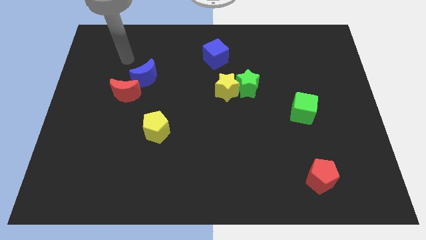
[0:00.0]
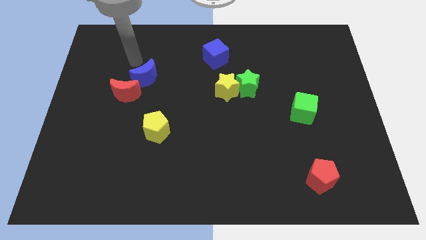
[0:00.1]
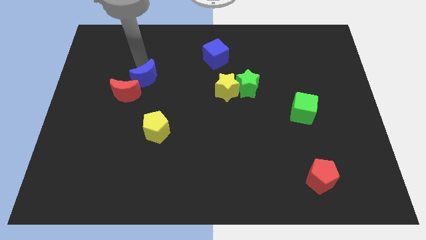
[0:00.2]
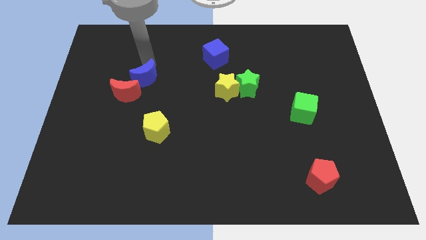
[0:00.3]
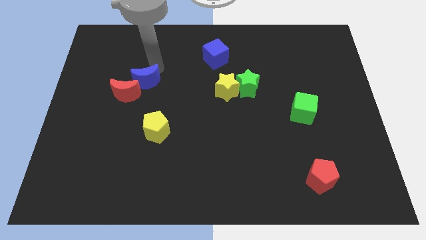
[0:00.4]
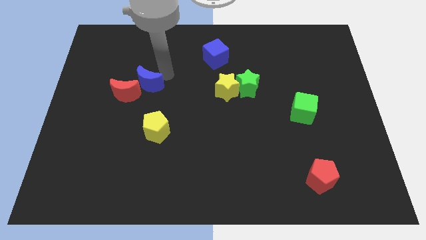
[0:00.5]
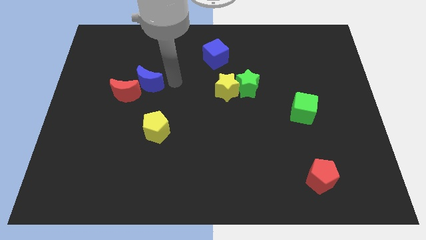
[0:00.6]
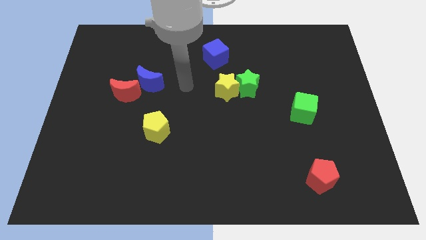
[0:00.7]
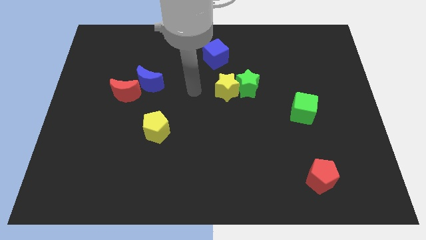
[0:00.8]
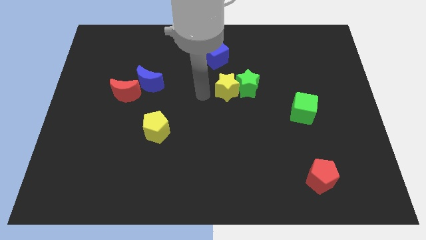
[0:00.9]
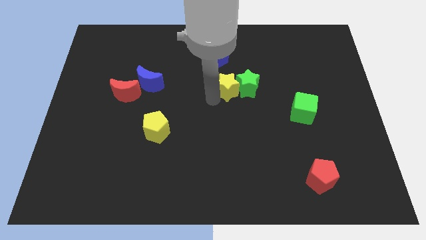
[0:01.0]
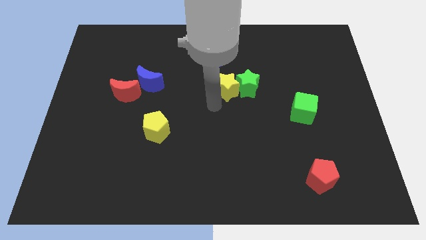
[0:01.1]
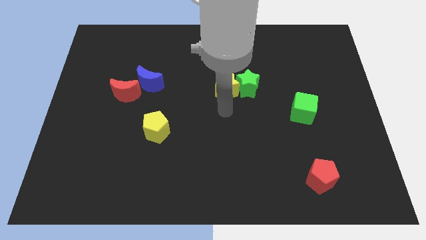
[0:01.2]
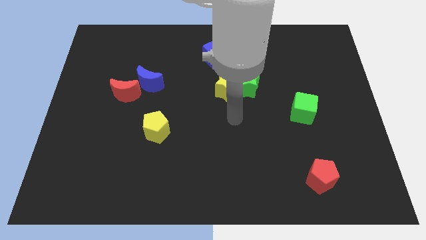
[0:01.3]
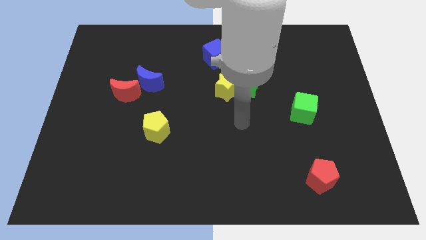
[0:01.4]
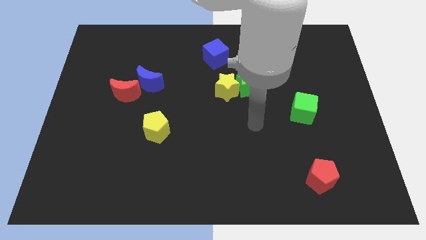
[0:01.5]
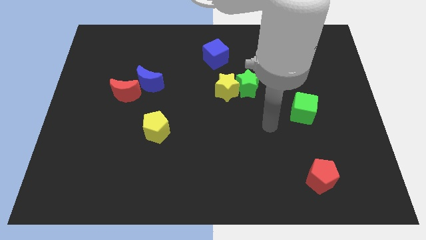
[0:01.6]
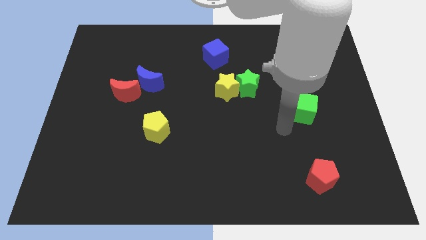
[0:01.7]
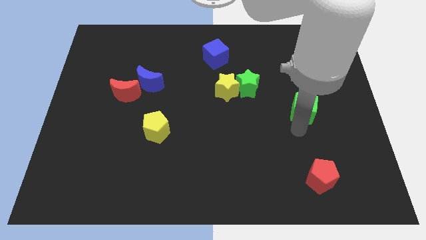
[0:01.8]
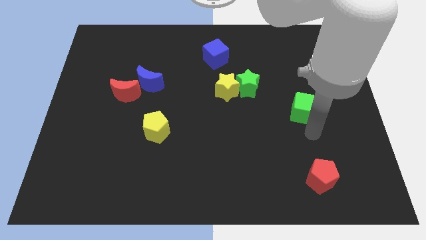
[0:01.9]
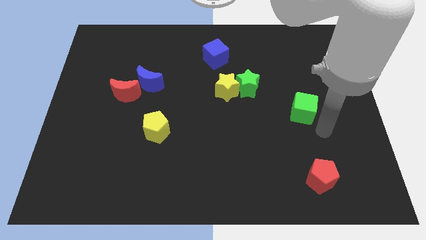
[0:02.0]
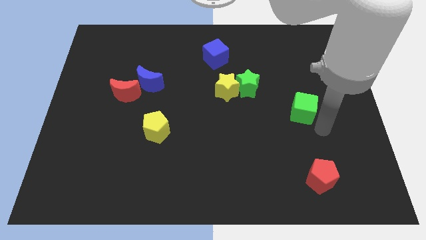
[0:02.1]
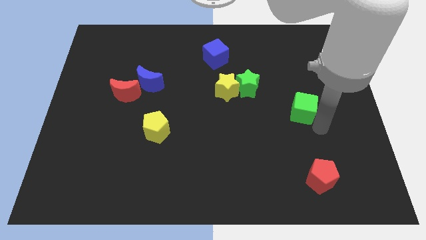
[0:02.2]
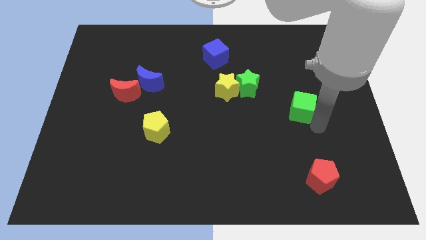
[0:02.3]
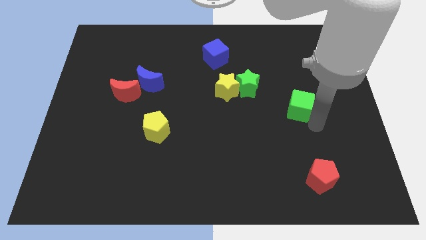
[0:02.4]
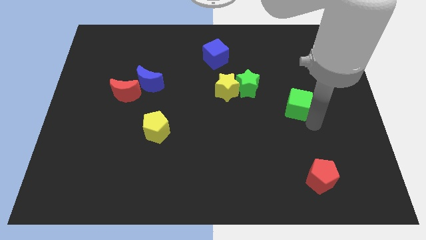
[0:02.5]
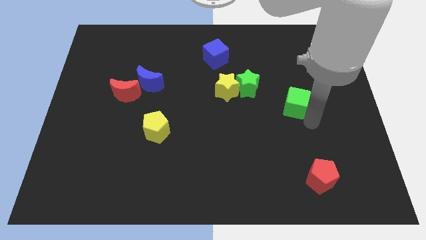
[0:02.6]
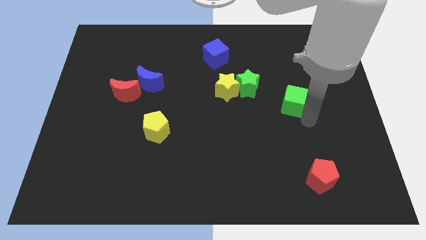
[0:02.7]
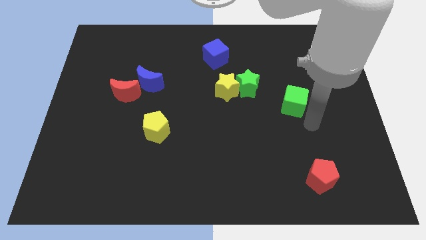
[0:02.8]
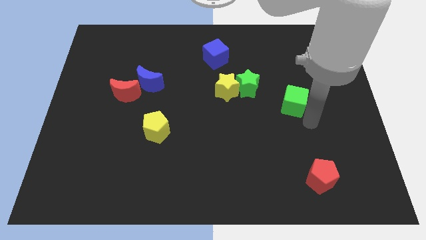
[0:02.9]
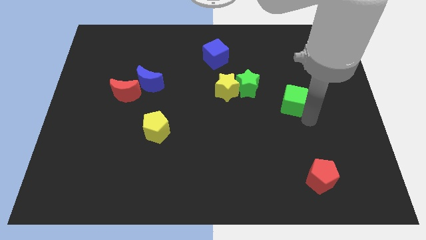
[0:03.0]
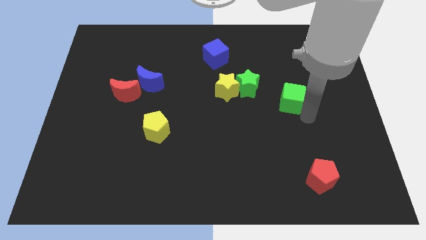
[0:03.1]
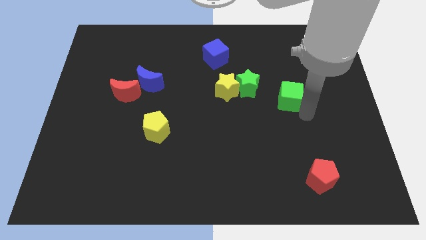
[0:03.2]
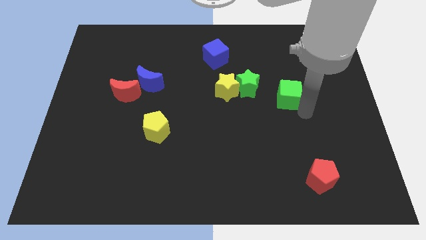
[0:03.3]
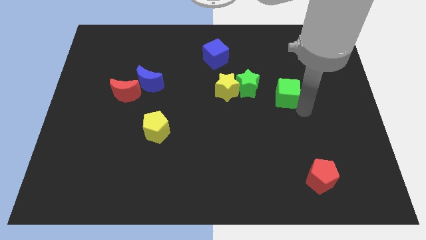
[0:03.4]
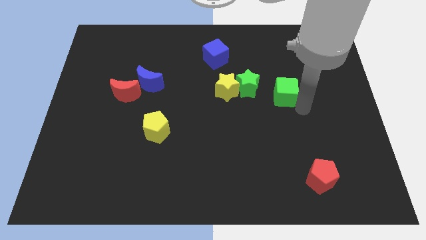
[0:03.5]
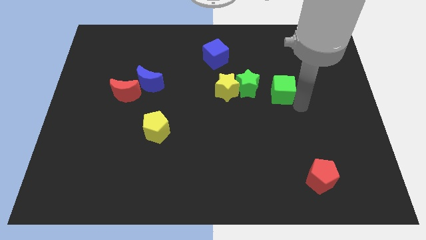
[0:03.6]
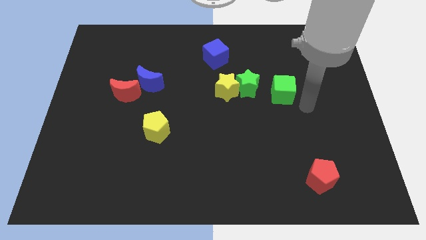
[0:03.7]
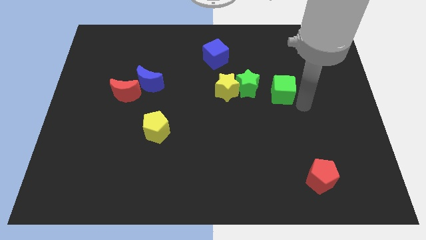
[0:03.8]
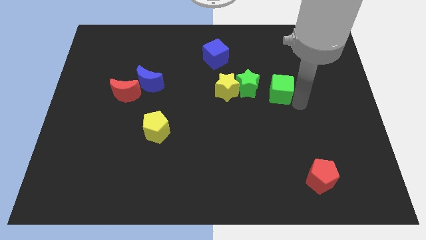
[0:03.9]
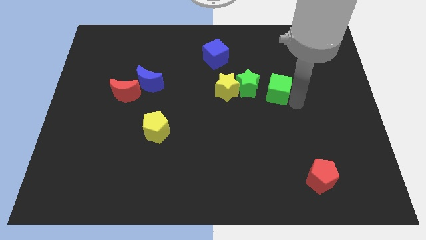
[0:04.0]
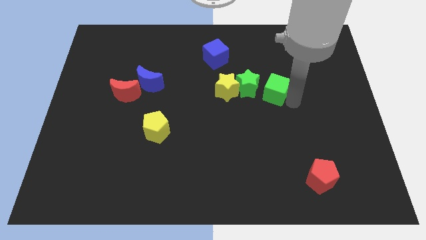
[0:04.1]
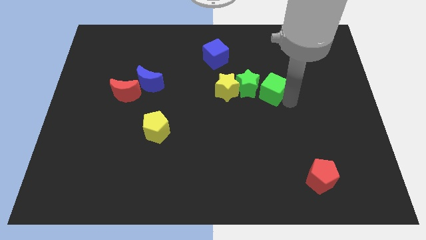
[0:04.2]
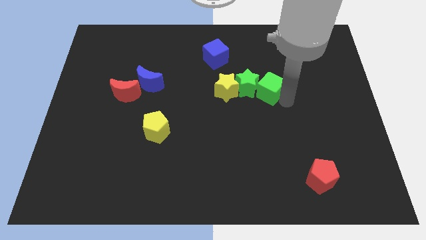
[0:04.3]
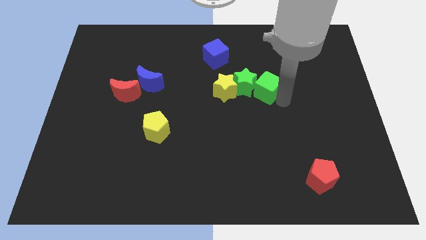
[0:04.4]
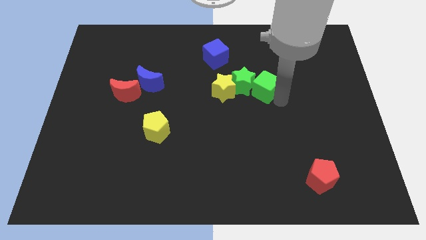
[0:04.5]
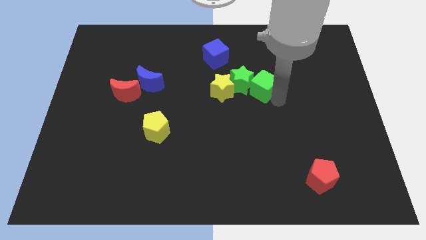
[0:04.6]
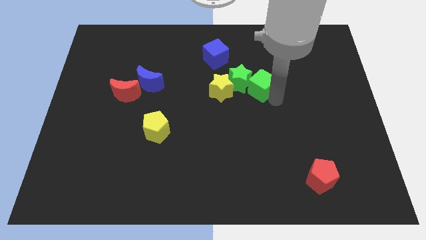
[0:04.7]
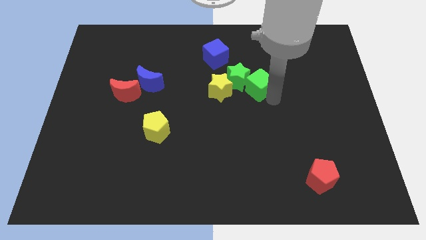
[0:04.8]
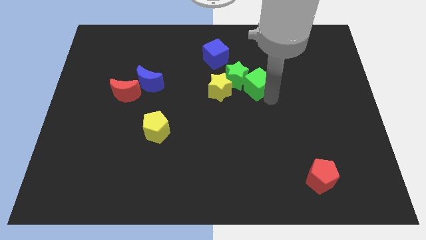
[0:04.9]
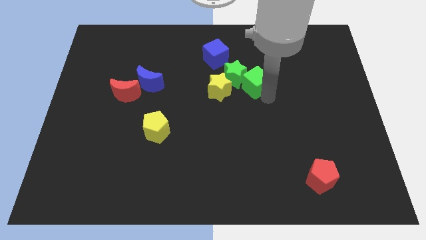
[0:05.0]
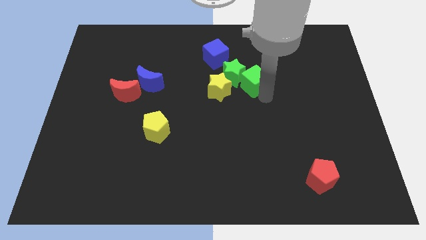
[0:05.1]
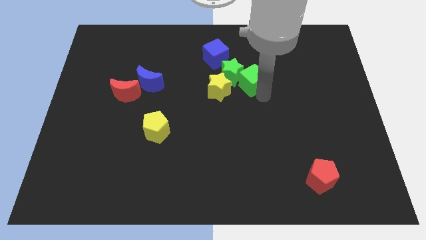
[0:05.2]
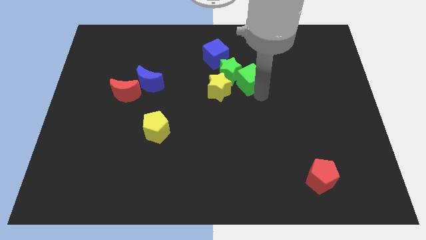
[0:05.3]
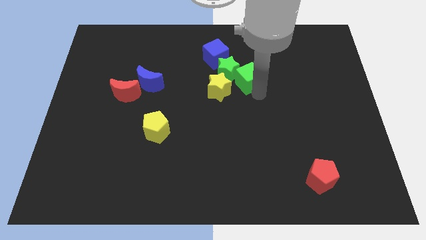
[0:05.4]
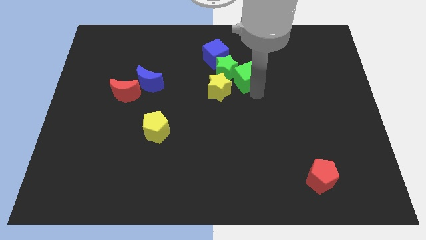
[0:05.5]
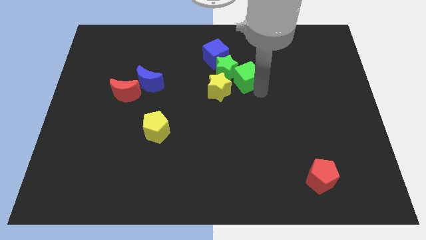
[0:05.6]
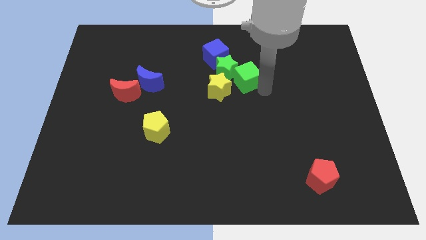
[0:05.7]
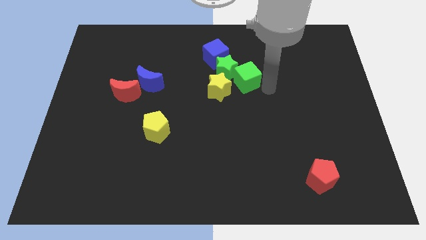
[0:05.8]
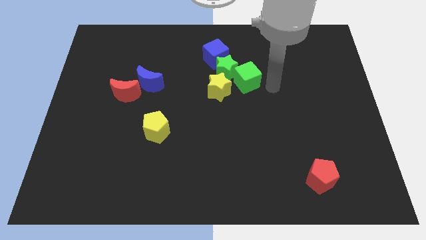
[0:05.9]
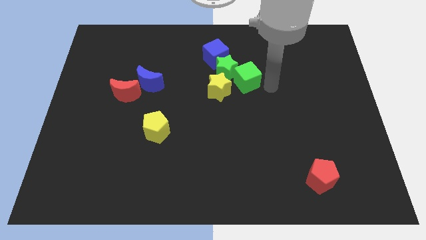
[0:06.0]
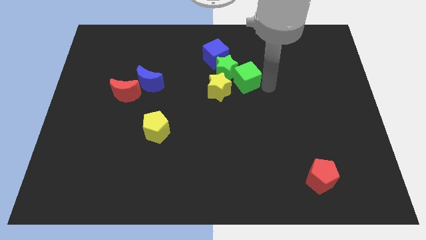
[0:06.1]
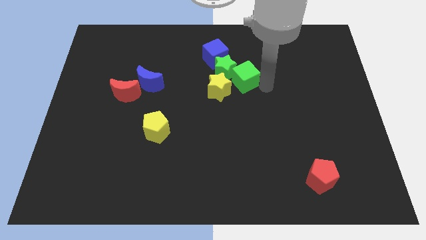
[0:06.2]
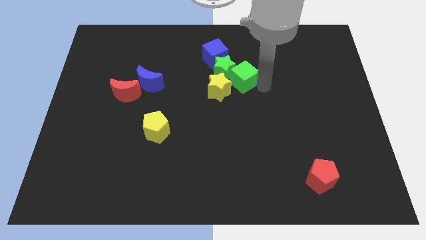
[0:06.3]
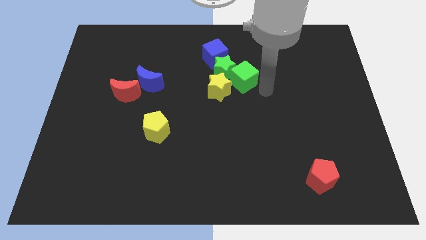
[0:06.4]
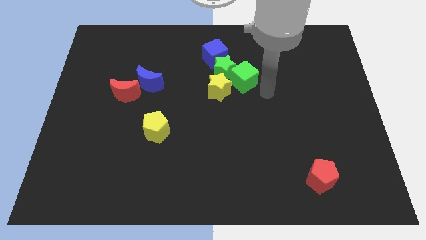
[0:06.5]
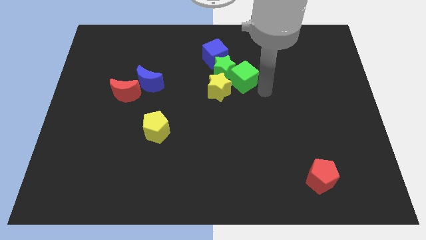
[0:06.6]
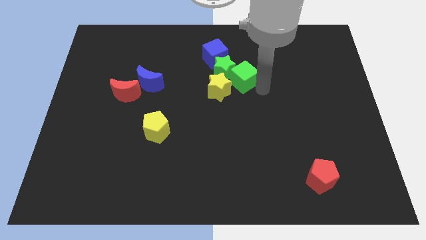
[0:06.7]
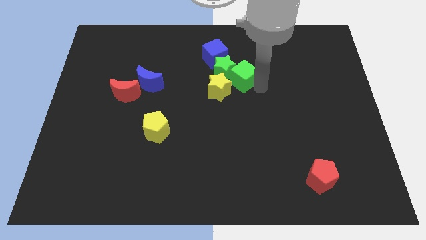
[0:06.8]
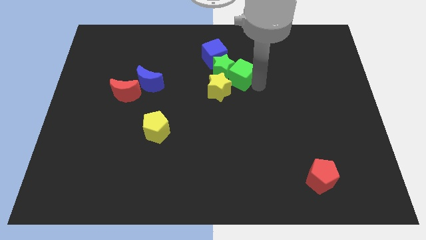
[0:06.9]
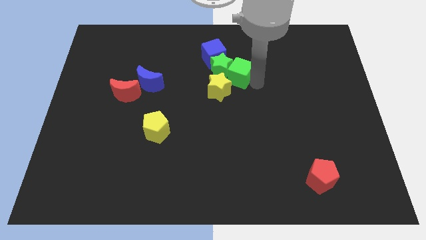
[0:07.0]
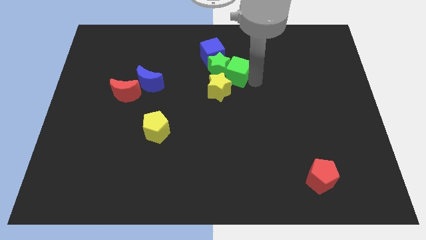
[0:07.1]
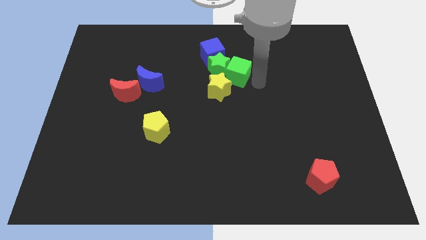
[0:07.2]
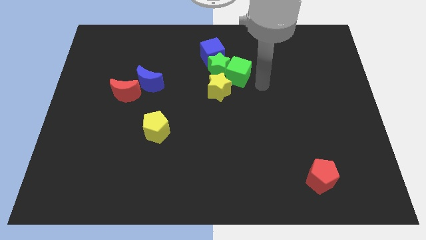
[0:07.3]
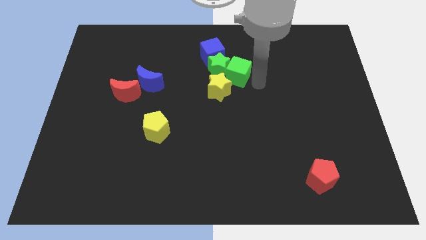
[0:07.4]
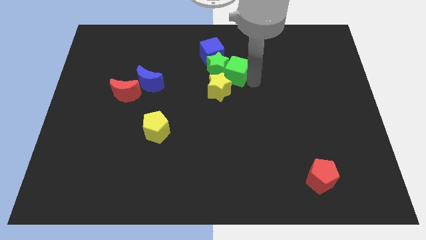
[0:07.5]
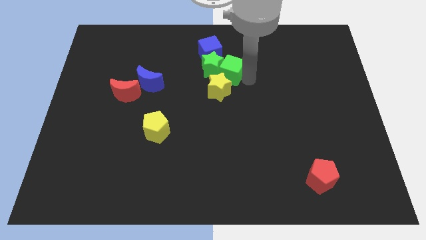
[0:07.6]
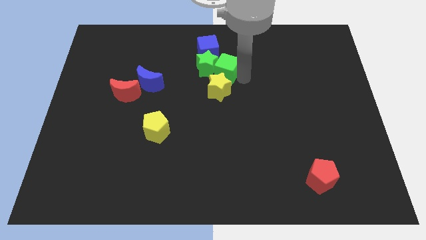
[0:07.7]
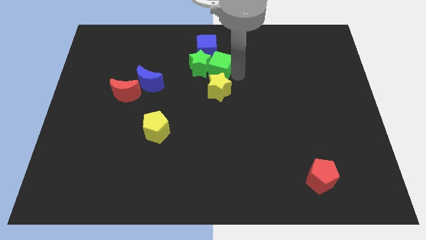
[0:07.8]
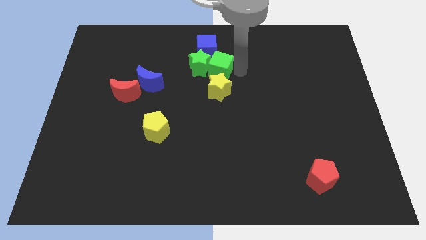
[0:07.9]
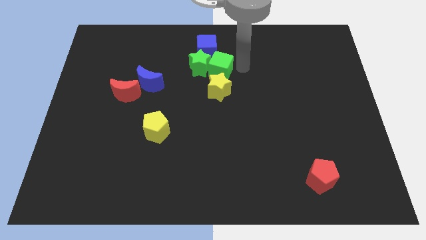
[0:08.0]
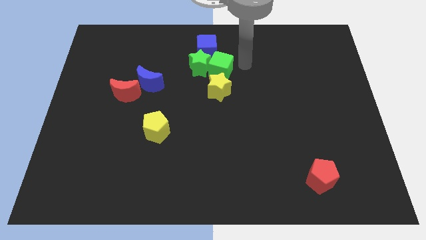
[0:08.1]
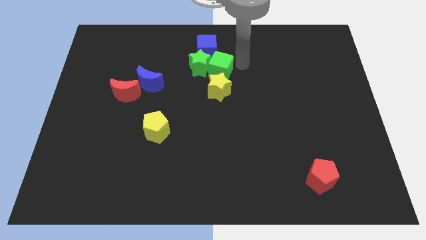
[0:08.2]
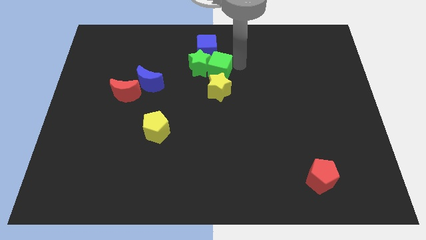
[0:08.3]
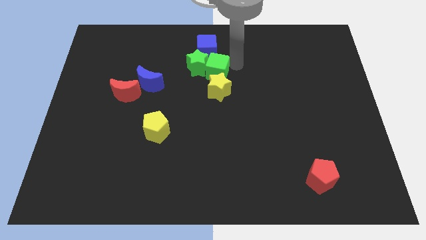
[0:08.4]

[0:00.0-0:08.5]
put the green cube to the top left of the yellow star
